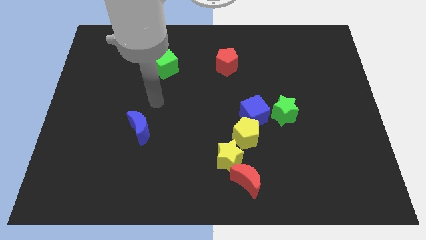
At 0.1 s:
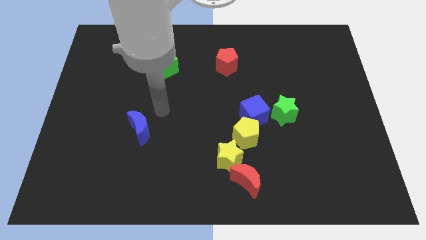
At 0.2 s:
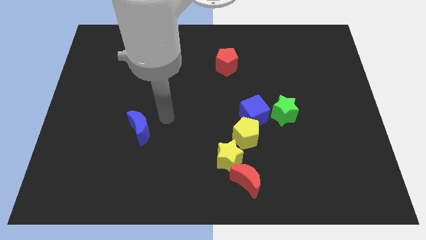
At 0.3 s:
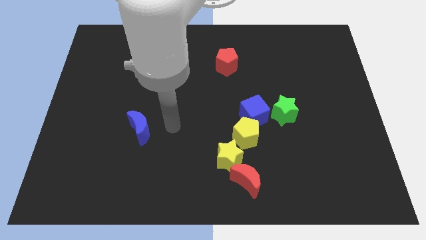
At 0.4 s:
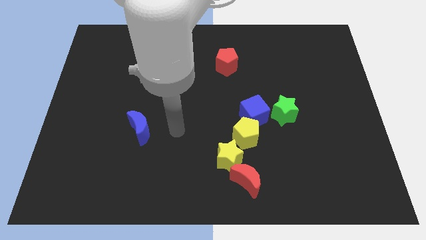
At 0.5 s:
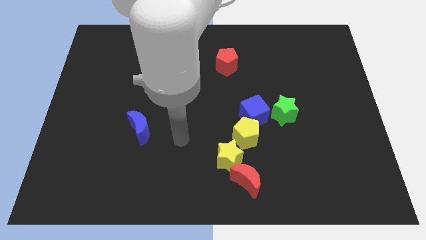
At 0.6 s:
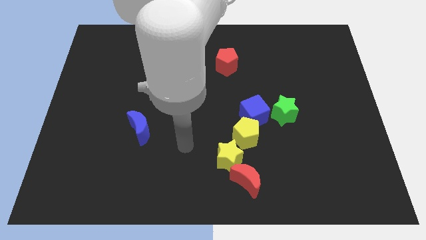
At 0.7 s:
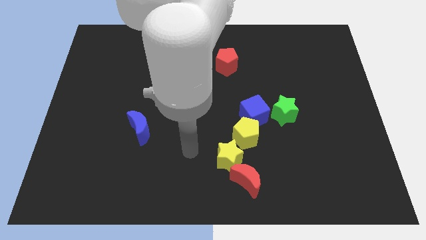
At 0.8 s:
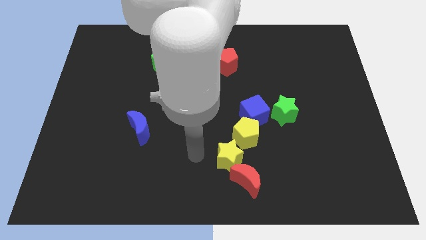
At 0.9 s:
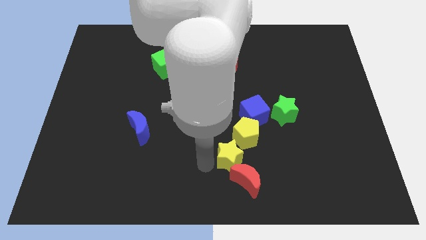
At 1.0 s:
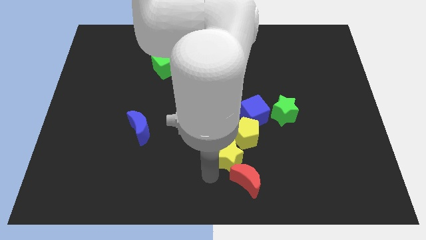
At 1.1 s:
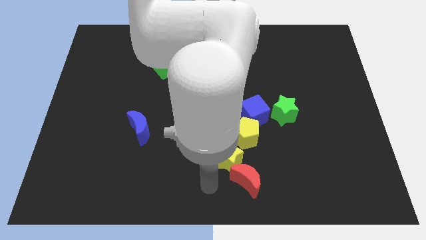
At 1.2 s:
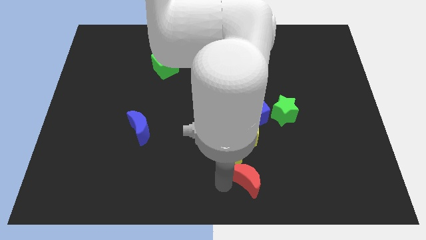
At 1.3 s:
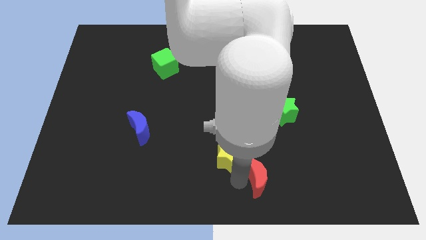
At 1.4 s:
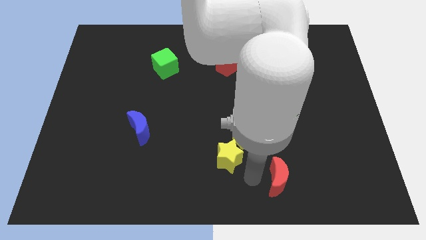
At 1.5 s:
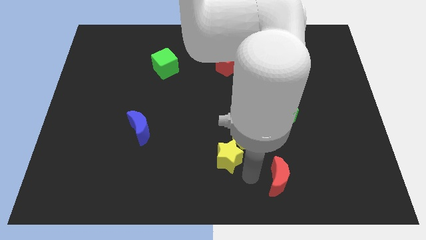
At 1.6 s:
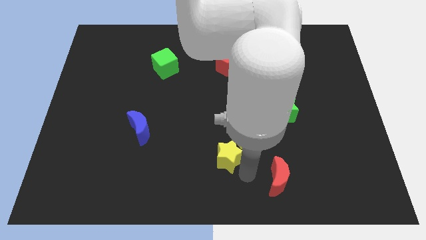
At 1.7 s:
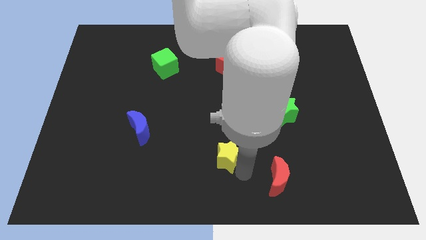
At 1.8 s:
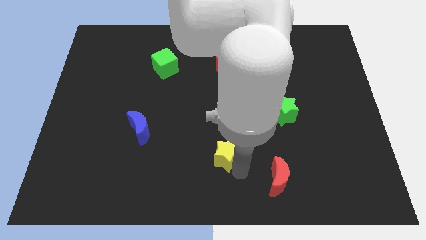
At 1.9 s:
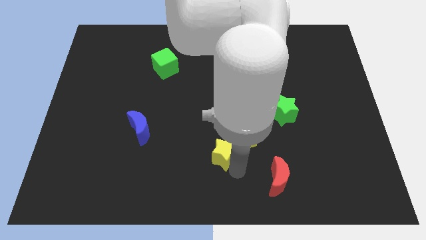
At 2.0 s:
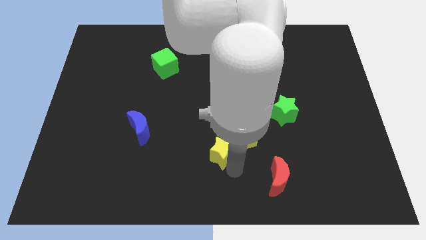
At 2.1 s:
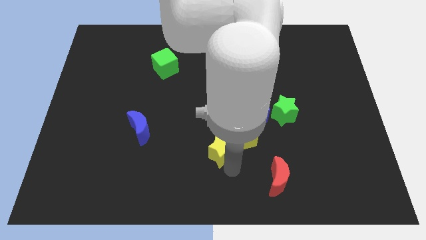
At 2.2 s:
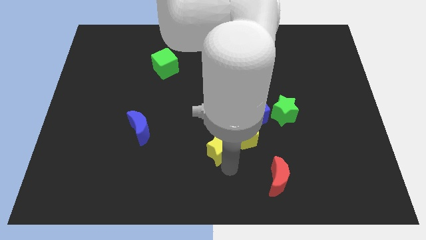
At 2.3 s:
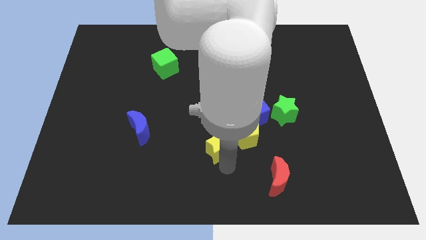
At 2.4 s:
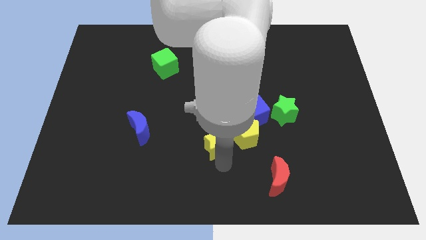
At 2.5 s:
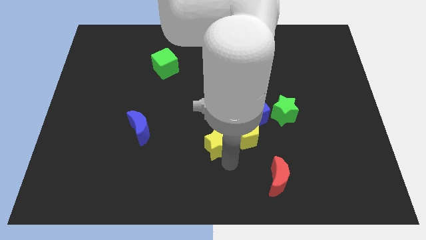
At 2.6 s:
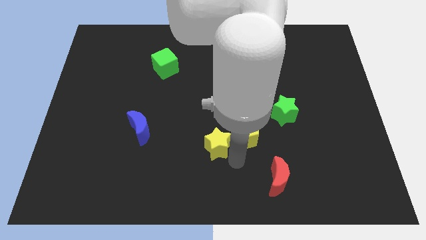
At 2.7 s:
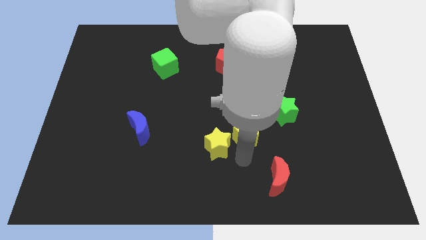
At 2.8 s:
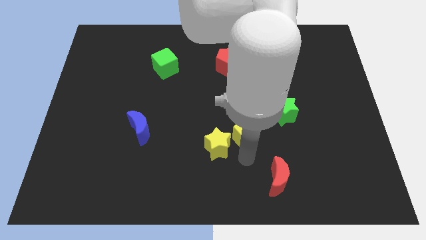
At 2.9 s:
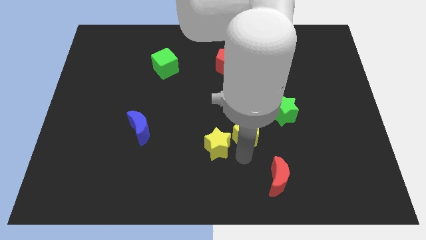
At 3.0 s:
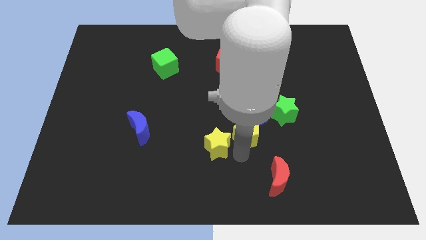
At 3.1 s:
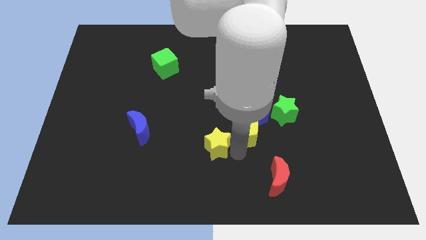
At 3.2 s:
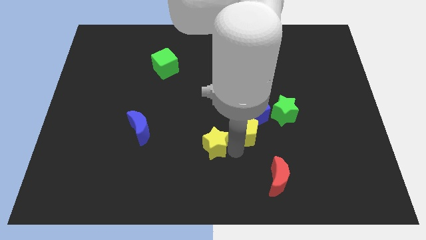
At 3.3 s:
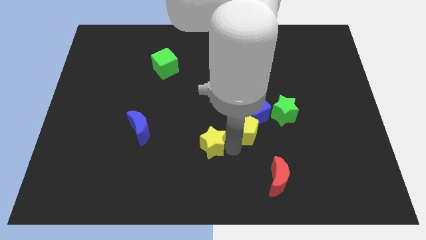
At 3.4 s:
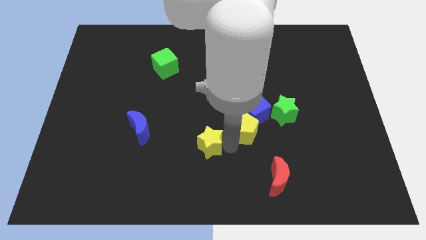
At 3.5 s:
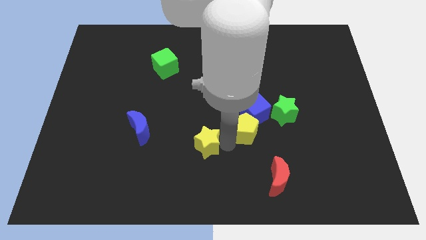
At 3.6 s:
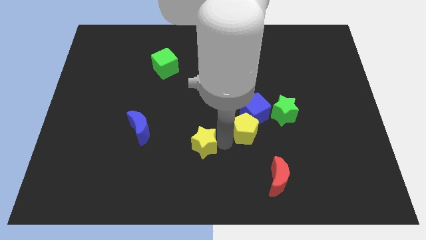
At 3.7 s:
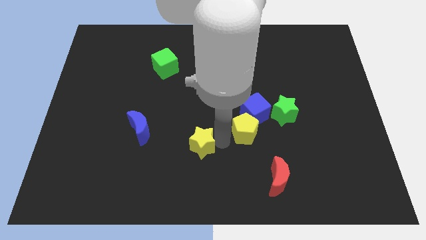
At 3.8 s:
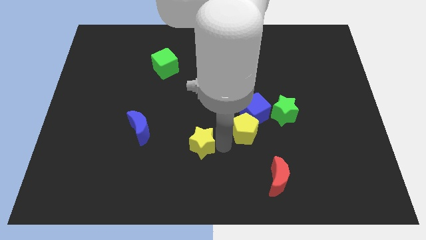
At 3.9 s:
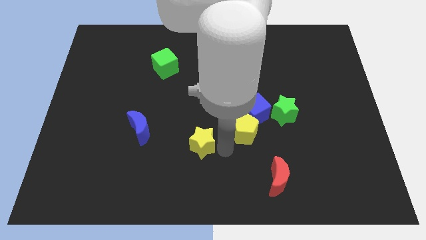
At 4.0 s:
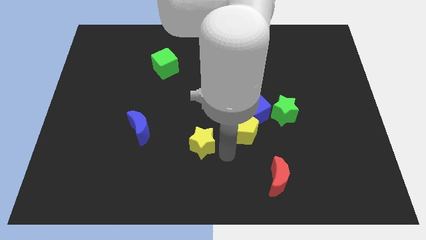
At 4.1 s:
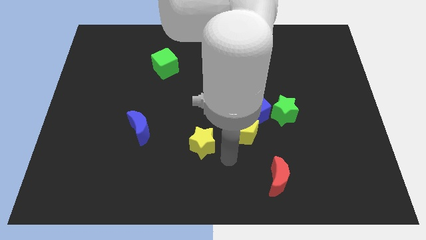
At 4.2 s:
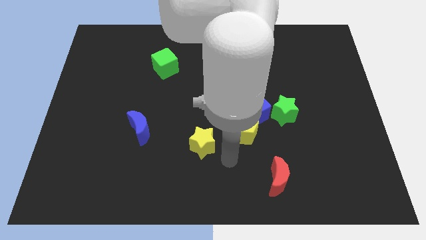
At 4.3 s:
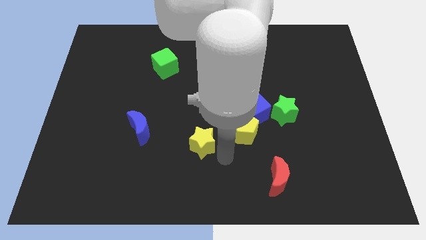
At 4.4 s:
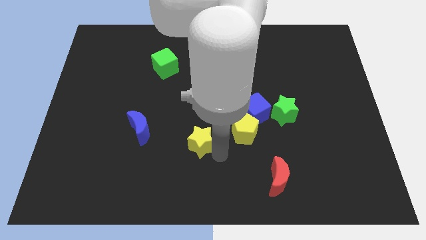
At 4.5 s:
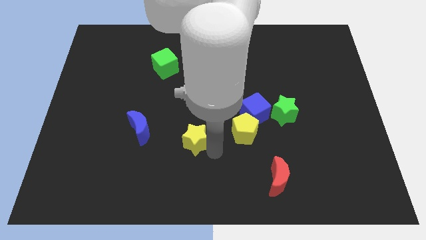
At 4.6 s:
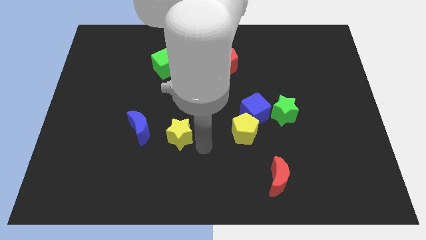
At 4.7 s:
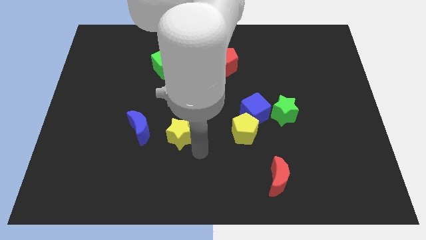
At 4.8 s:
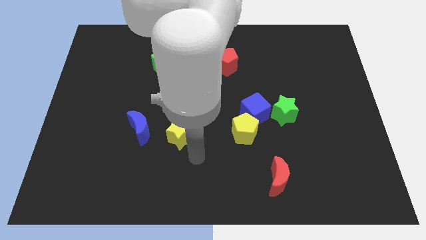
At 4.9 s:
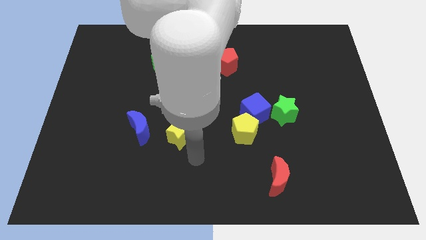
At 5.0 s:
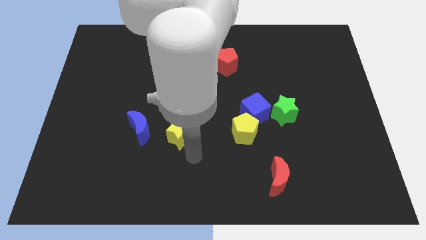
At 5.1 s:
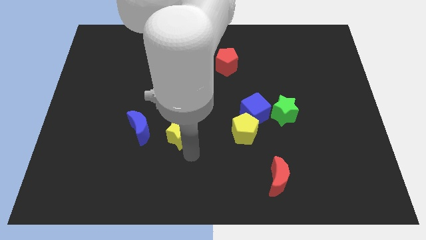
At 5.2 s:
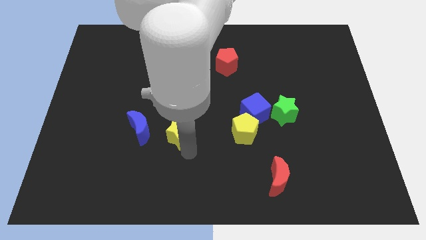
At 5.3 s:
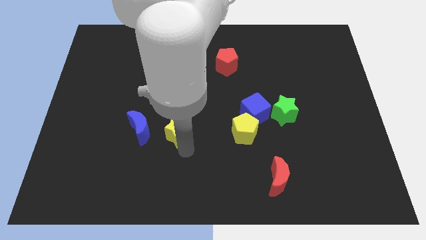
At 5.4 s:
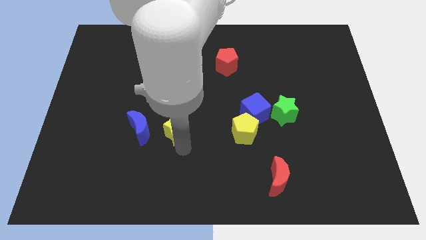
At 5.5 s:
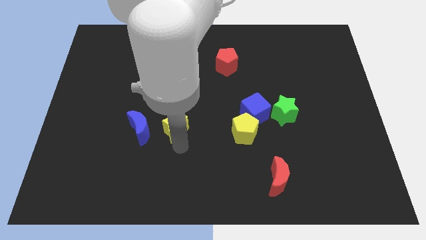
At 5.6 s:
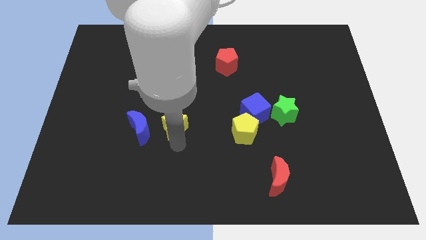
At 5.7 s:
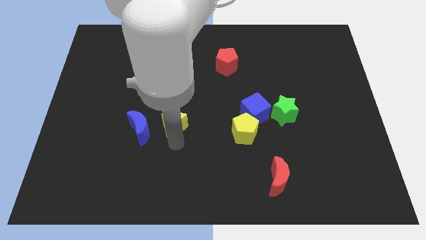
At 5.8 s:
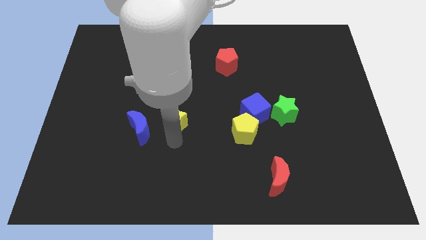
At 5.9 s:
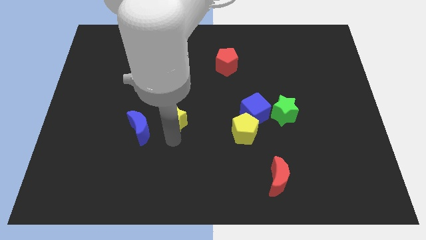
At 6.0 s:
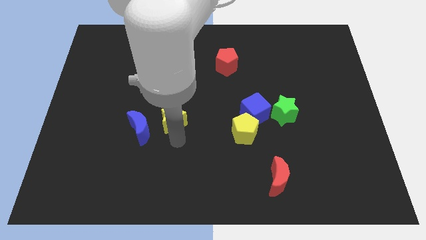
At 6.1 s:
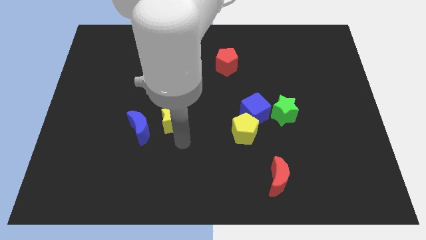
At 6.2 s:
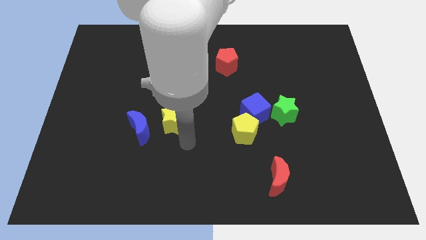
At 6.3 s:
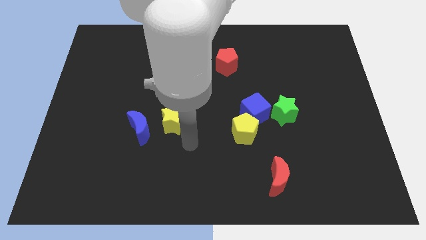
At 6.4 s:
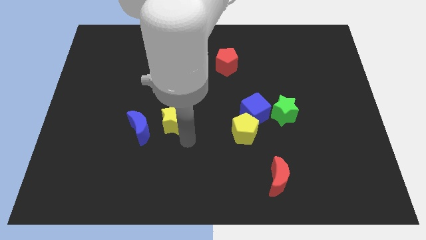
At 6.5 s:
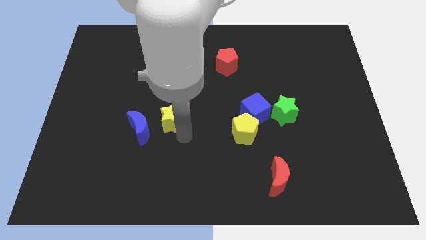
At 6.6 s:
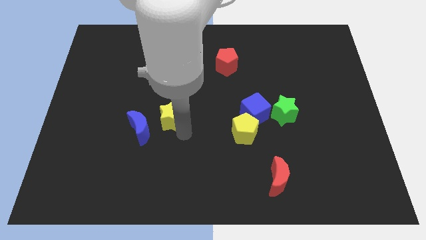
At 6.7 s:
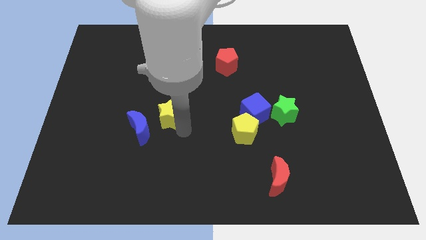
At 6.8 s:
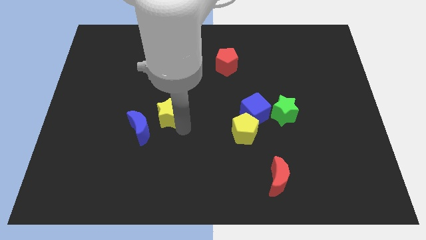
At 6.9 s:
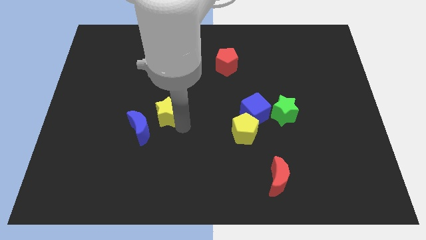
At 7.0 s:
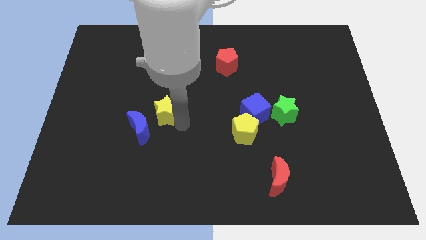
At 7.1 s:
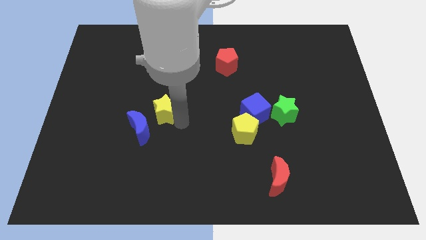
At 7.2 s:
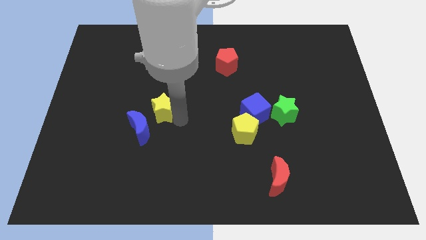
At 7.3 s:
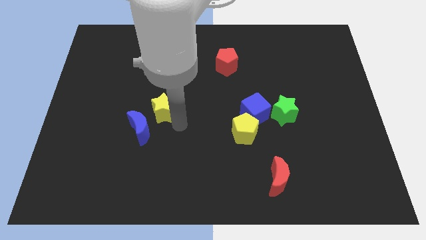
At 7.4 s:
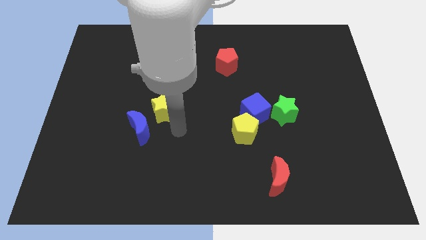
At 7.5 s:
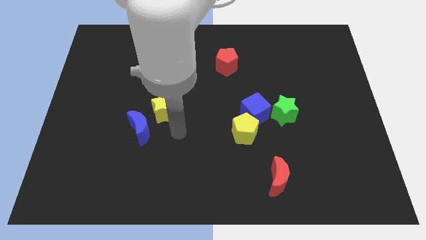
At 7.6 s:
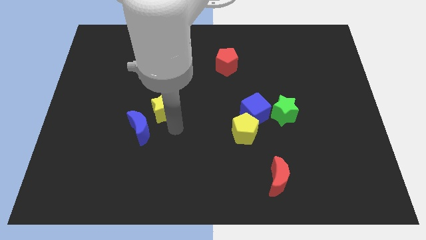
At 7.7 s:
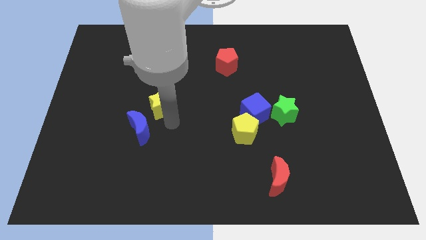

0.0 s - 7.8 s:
slide the yellow star diagonally upwards and left

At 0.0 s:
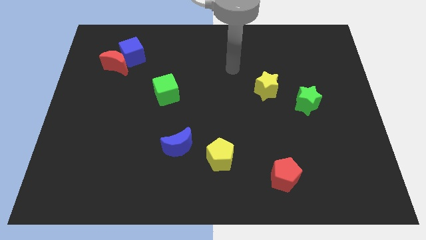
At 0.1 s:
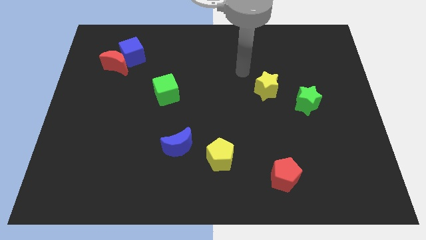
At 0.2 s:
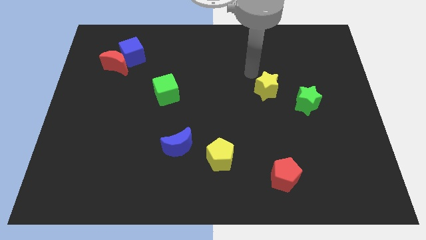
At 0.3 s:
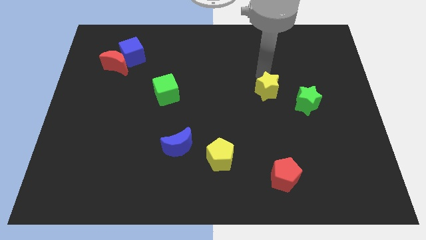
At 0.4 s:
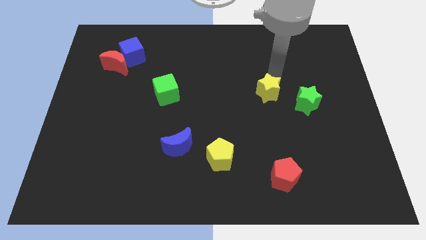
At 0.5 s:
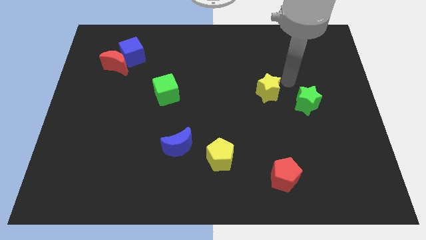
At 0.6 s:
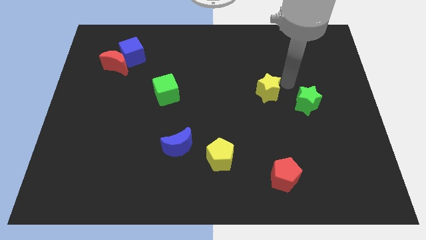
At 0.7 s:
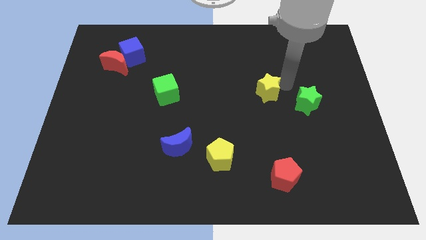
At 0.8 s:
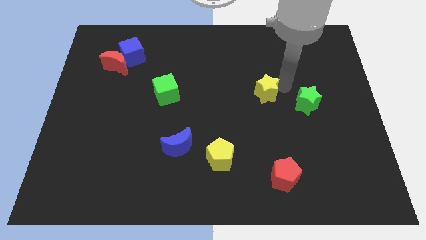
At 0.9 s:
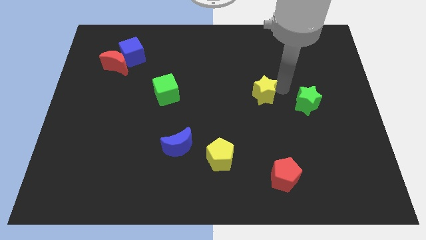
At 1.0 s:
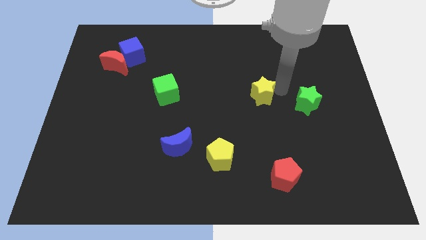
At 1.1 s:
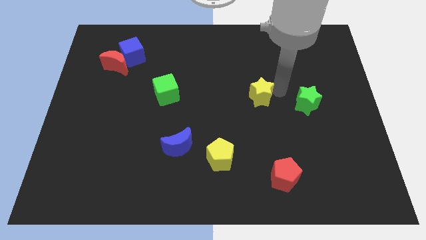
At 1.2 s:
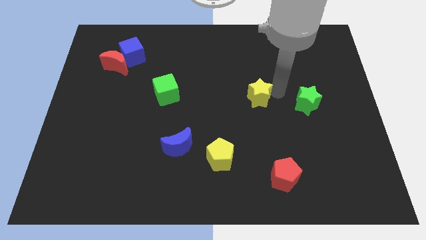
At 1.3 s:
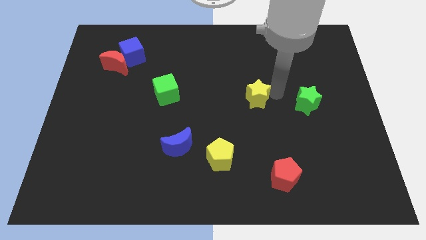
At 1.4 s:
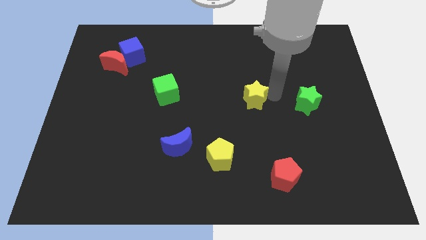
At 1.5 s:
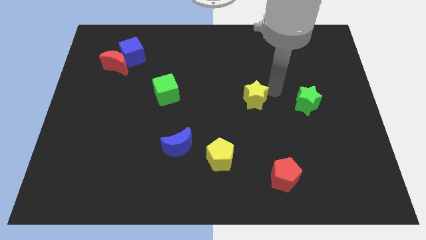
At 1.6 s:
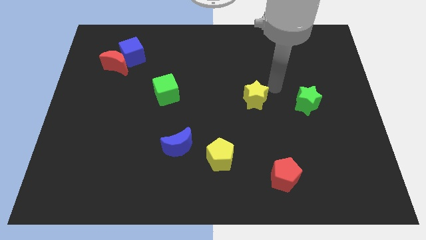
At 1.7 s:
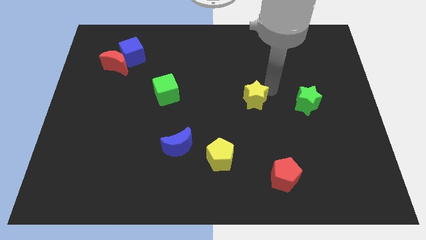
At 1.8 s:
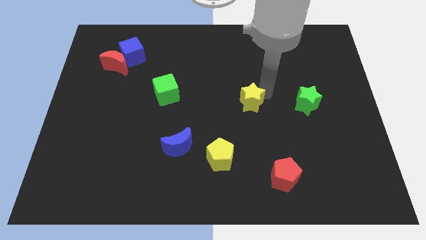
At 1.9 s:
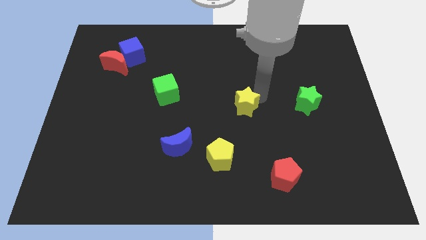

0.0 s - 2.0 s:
move the yellow star diagonally down and to the left slightly
